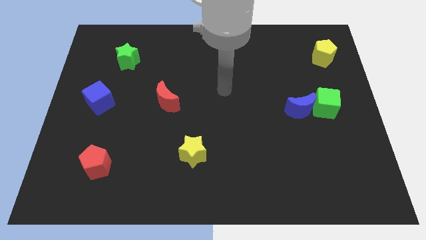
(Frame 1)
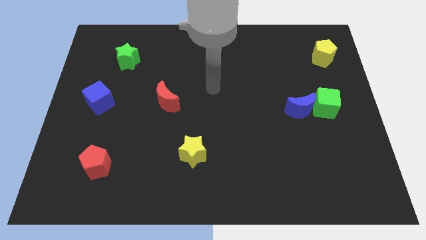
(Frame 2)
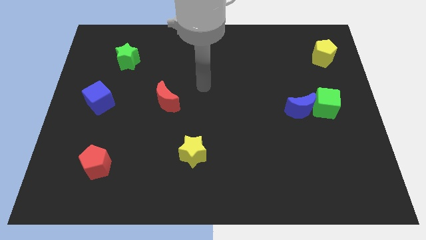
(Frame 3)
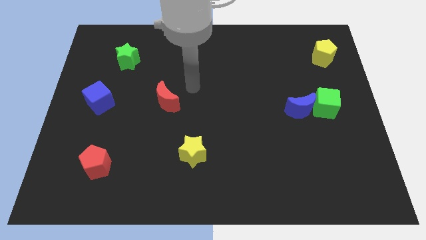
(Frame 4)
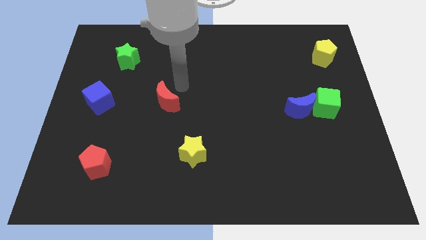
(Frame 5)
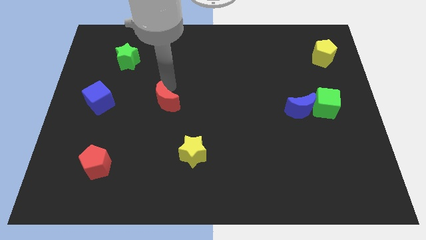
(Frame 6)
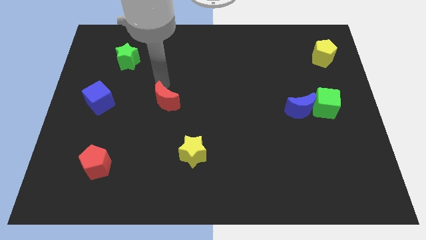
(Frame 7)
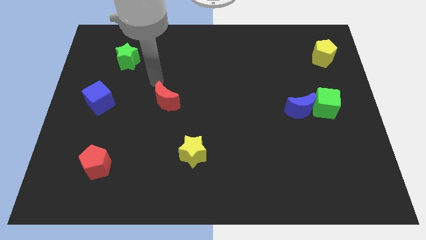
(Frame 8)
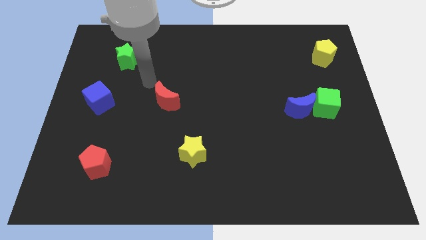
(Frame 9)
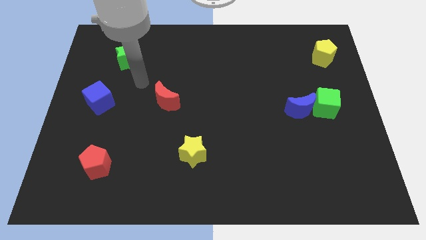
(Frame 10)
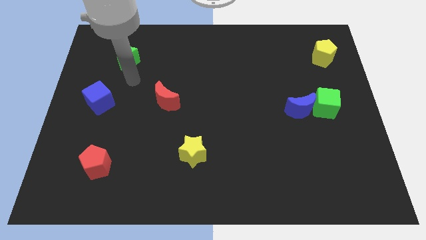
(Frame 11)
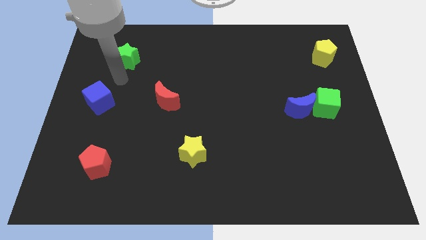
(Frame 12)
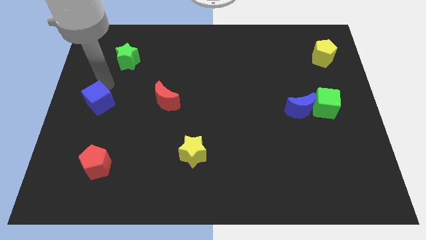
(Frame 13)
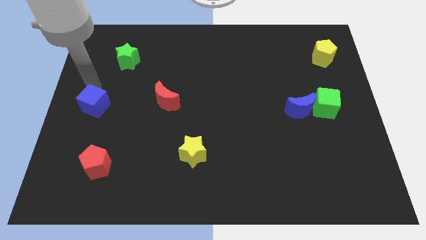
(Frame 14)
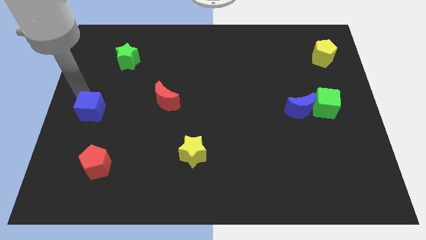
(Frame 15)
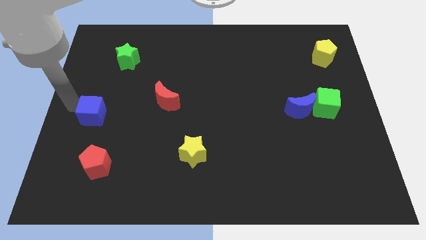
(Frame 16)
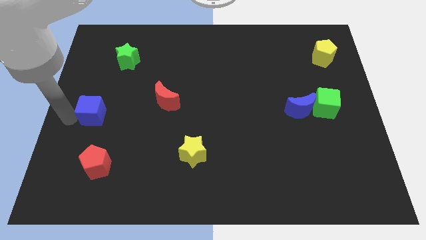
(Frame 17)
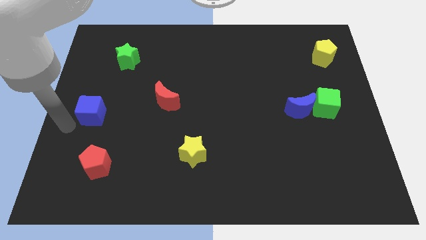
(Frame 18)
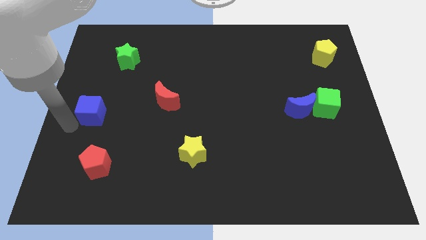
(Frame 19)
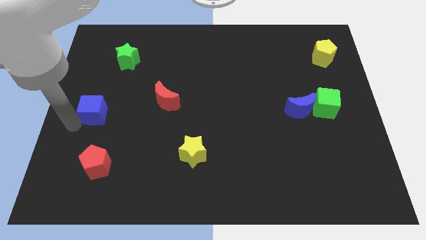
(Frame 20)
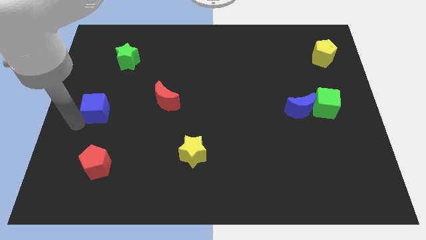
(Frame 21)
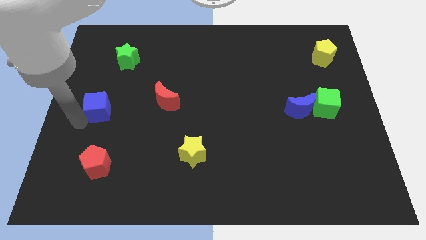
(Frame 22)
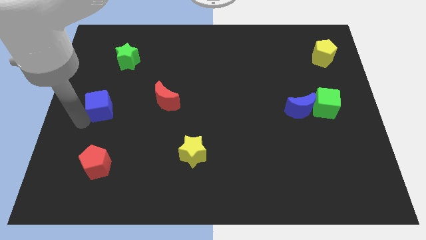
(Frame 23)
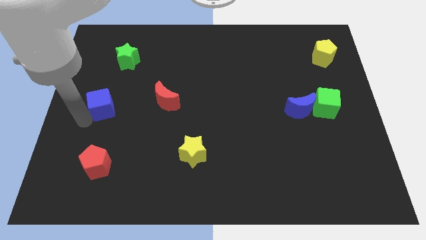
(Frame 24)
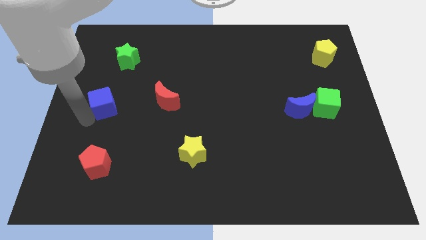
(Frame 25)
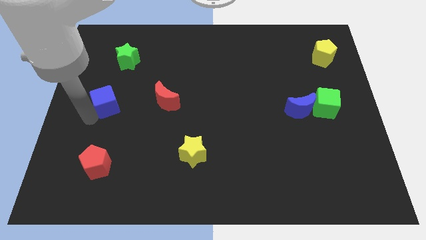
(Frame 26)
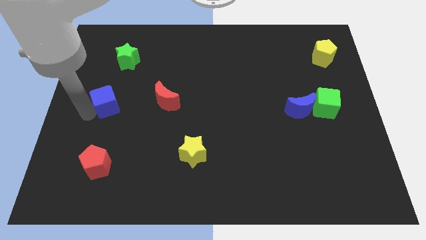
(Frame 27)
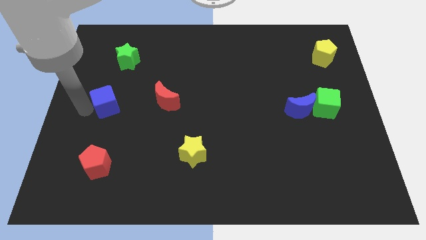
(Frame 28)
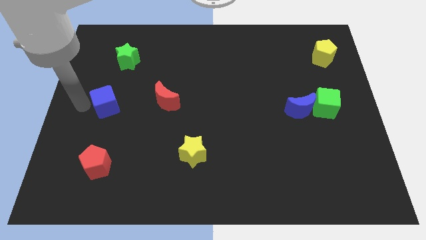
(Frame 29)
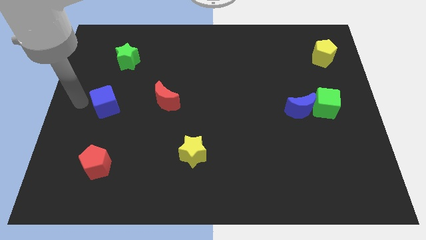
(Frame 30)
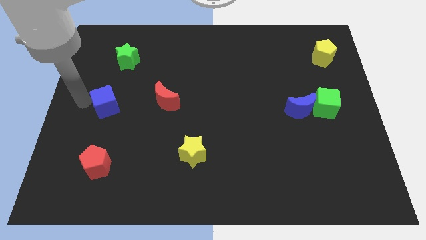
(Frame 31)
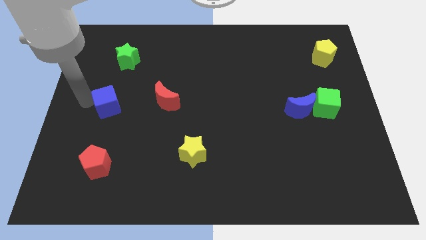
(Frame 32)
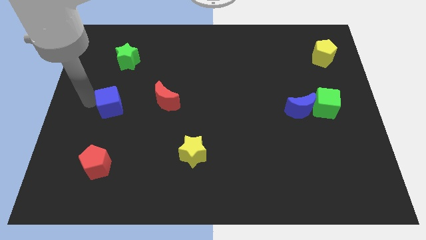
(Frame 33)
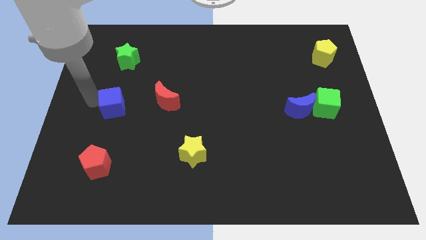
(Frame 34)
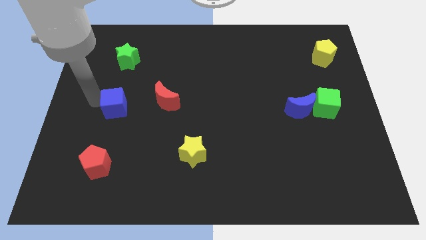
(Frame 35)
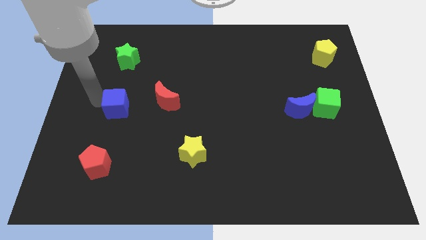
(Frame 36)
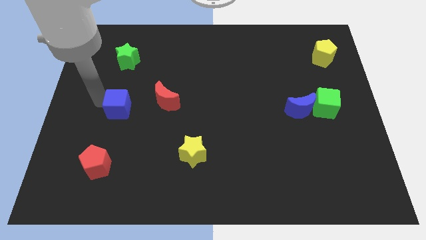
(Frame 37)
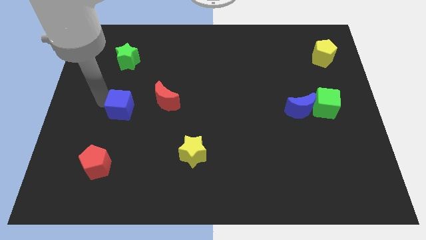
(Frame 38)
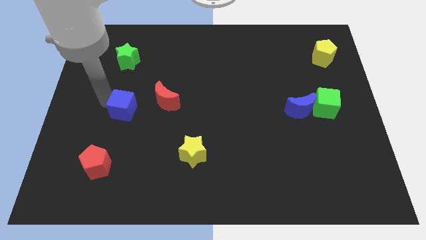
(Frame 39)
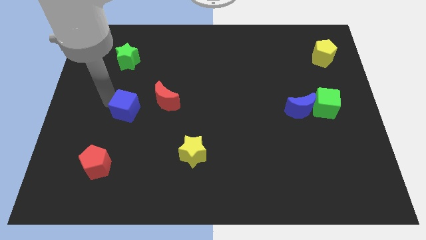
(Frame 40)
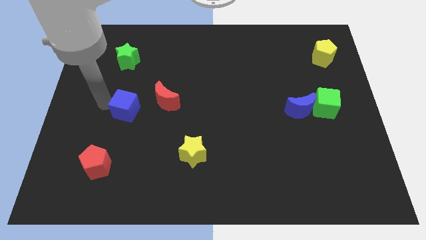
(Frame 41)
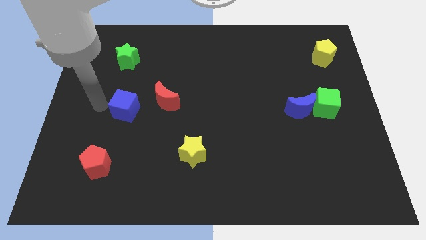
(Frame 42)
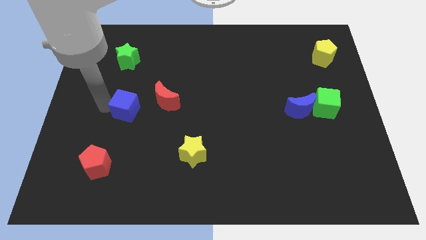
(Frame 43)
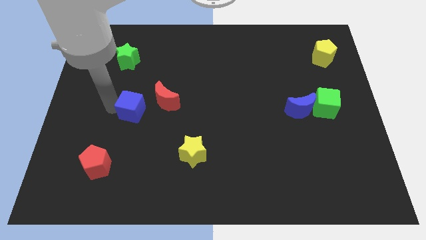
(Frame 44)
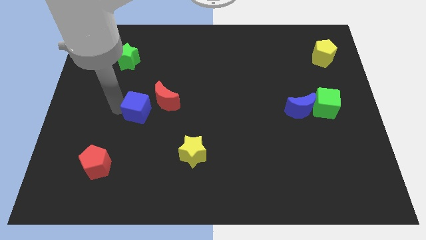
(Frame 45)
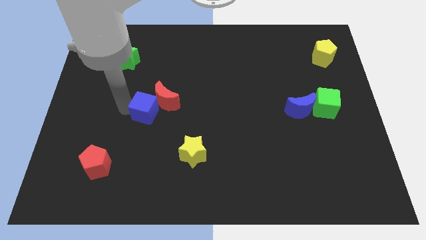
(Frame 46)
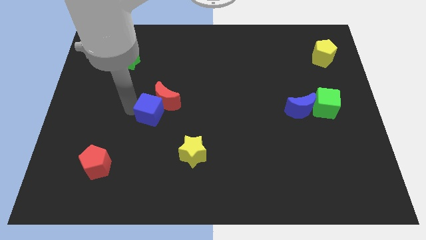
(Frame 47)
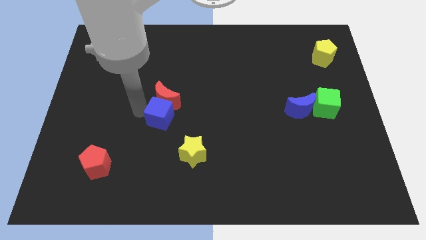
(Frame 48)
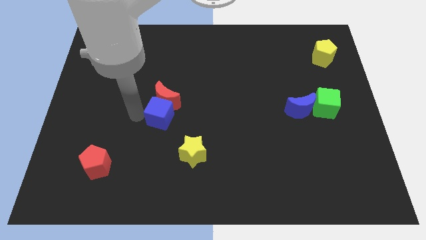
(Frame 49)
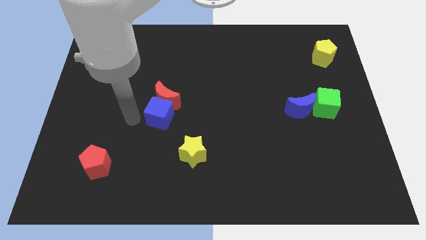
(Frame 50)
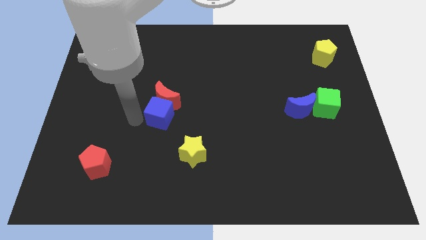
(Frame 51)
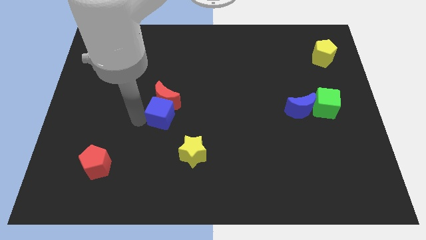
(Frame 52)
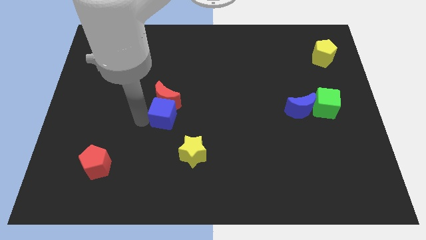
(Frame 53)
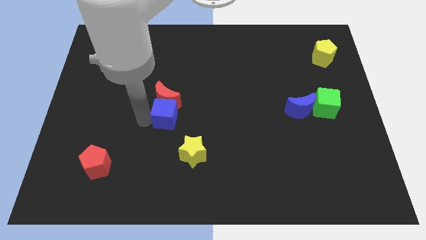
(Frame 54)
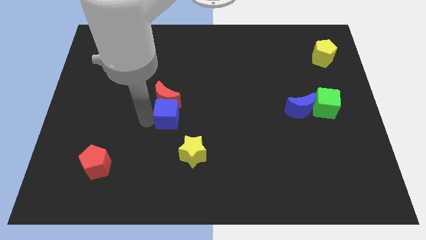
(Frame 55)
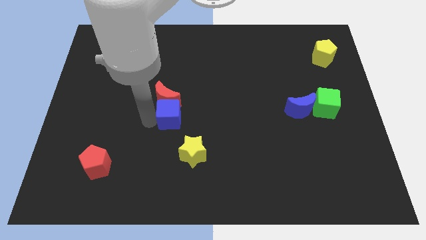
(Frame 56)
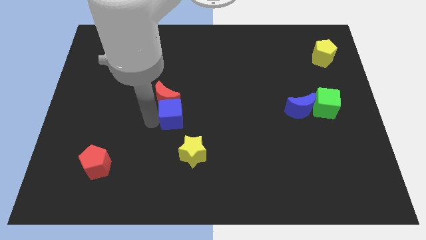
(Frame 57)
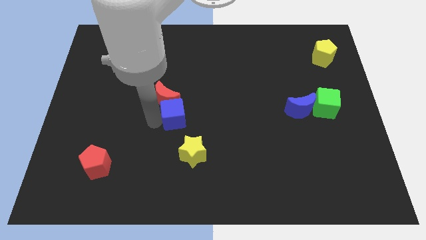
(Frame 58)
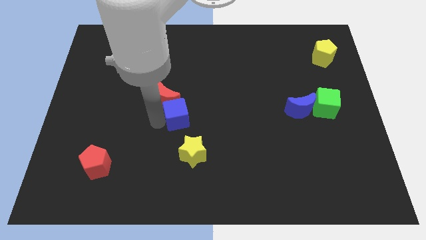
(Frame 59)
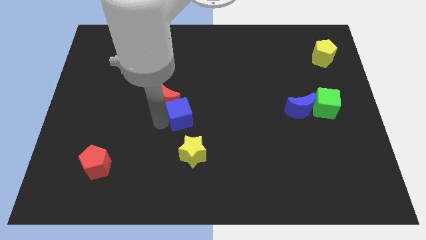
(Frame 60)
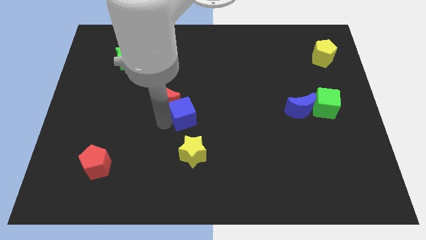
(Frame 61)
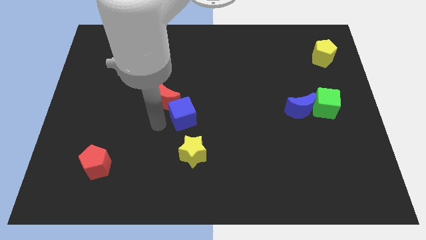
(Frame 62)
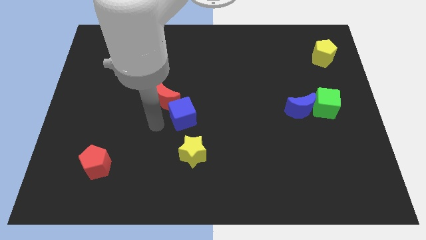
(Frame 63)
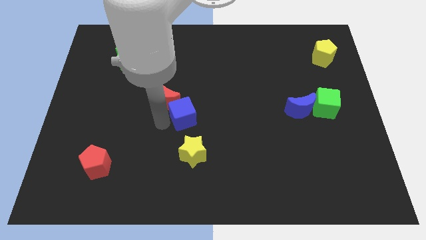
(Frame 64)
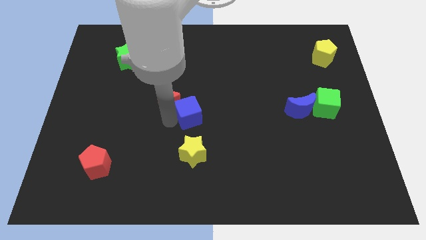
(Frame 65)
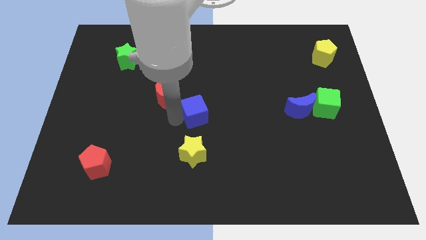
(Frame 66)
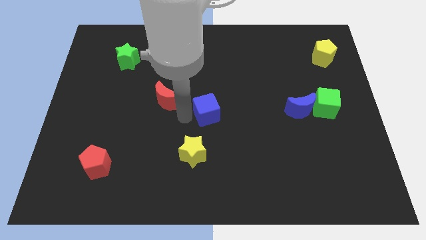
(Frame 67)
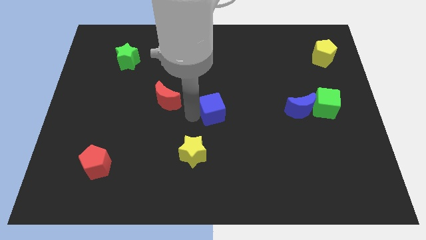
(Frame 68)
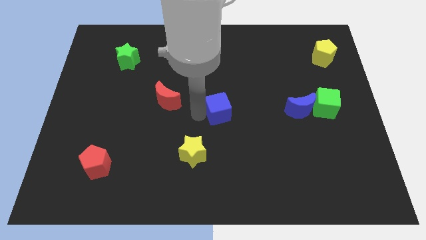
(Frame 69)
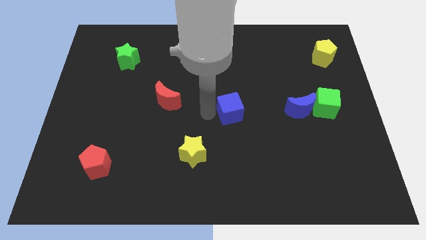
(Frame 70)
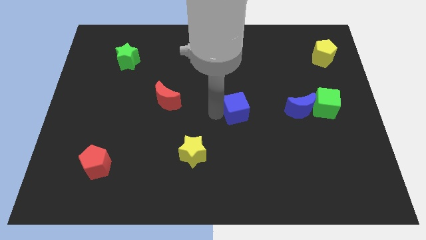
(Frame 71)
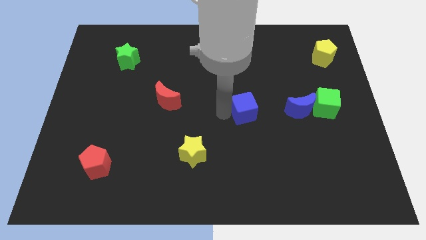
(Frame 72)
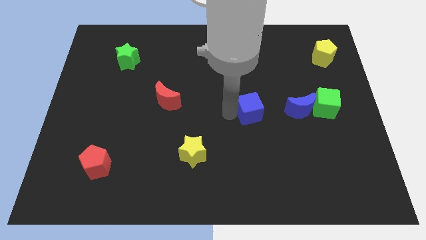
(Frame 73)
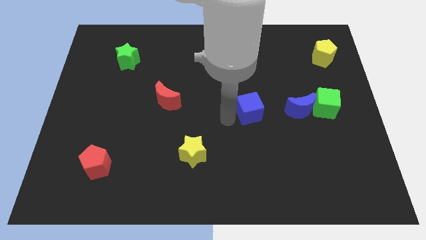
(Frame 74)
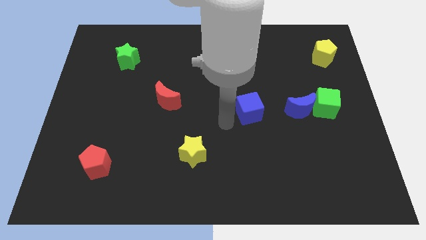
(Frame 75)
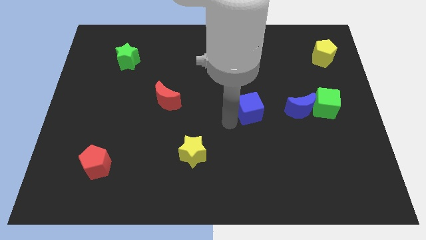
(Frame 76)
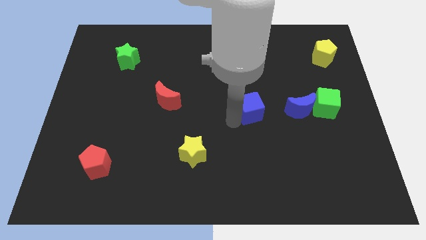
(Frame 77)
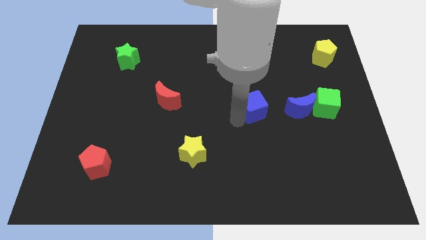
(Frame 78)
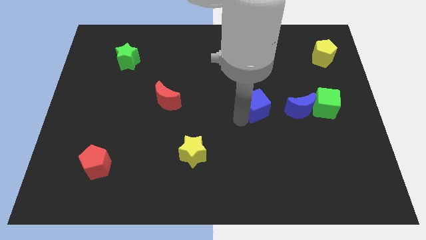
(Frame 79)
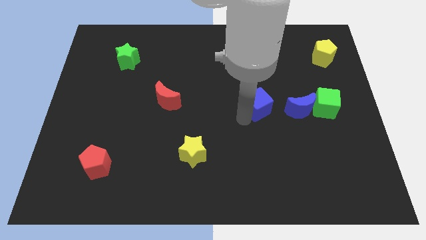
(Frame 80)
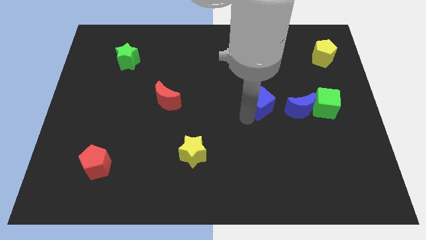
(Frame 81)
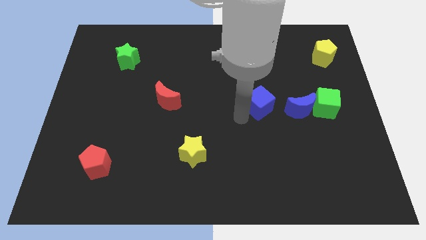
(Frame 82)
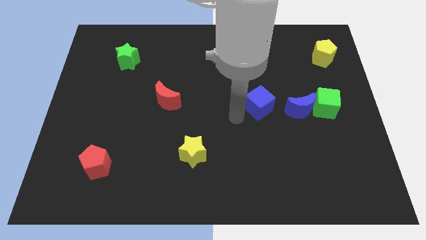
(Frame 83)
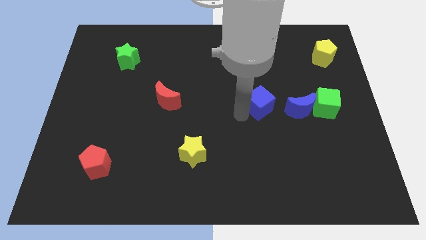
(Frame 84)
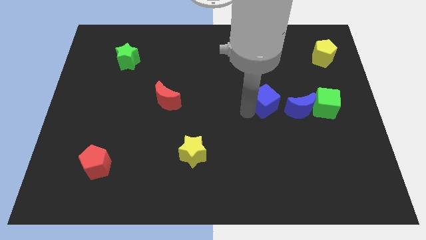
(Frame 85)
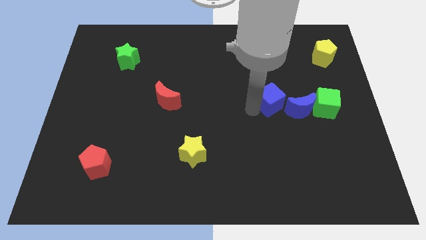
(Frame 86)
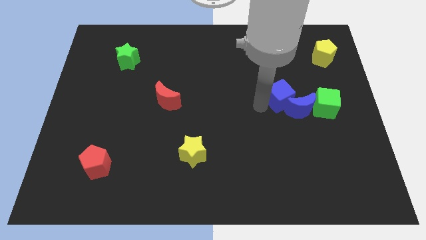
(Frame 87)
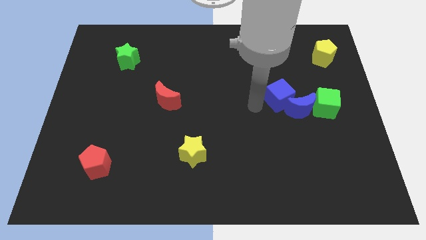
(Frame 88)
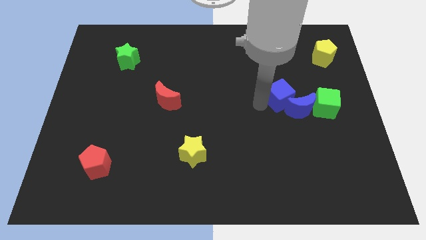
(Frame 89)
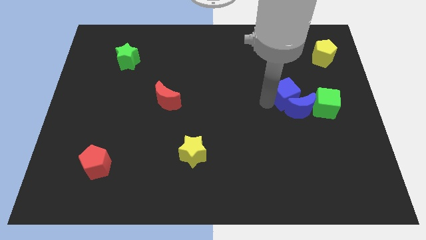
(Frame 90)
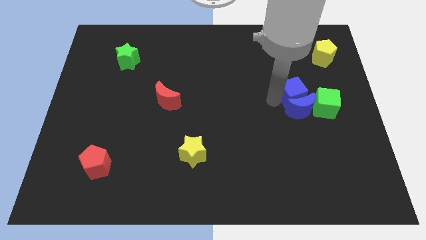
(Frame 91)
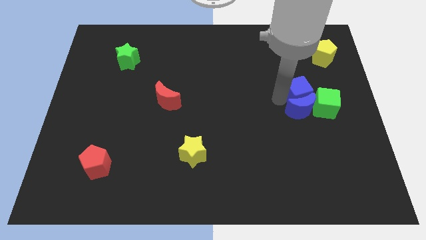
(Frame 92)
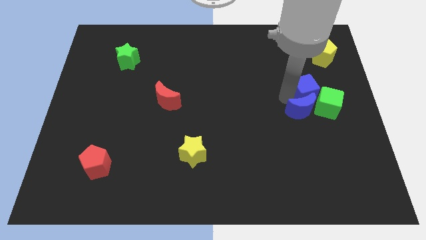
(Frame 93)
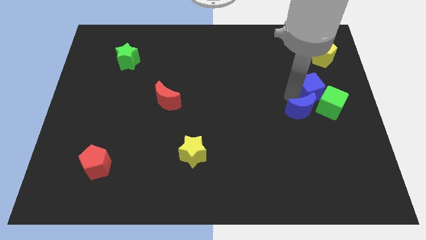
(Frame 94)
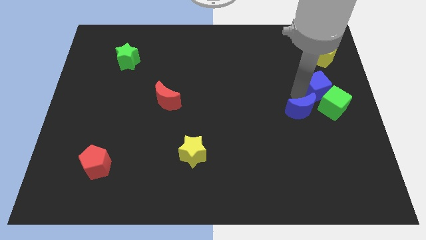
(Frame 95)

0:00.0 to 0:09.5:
put the blue cube below the yellow pentagon
